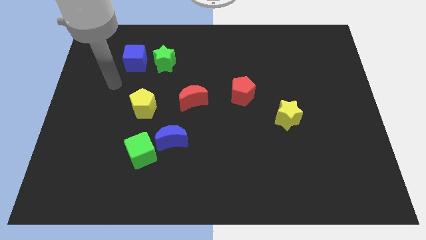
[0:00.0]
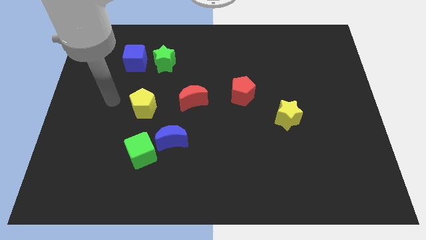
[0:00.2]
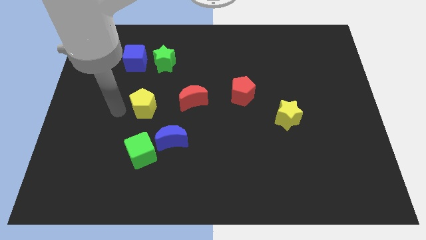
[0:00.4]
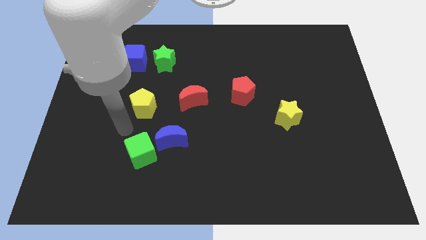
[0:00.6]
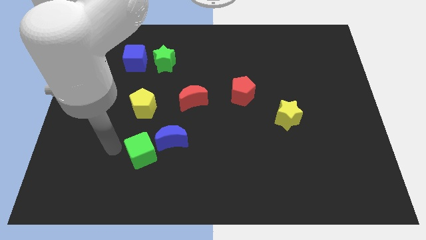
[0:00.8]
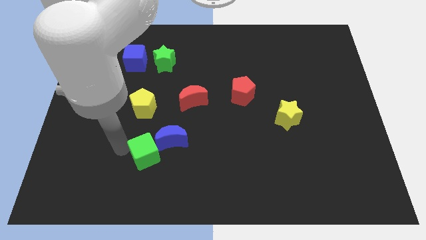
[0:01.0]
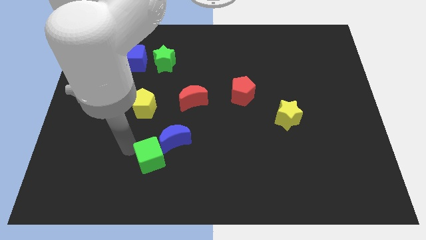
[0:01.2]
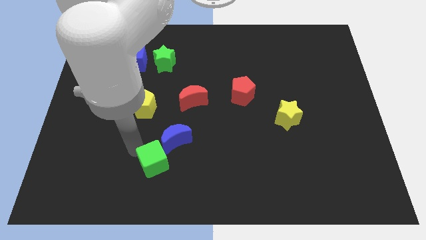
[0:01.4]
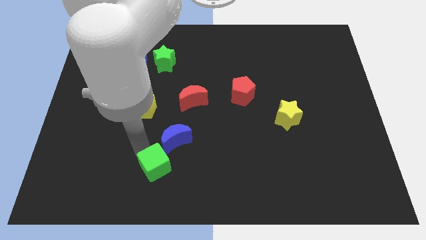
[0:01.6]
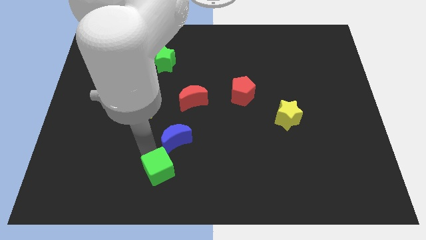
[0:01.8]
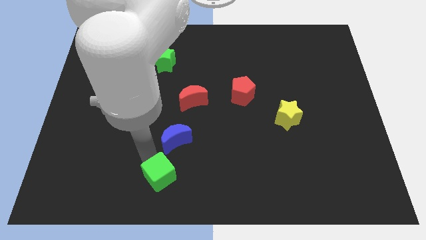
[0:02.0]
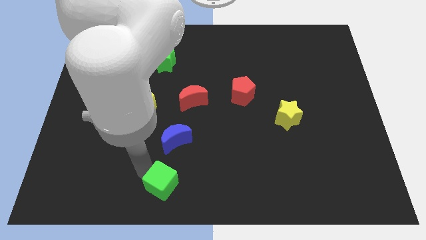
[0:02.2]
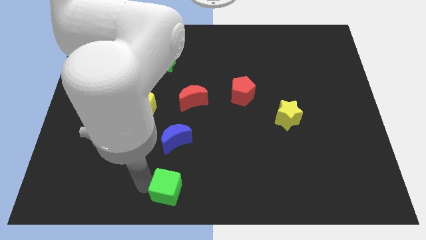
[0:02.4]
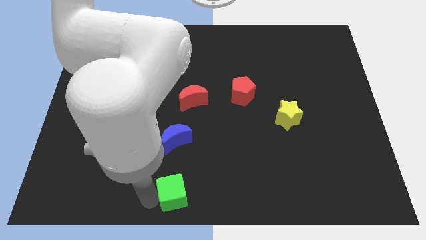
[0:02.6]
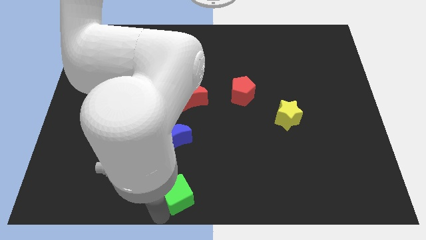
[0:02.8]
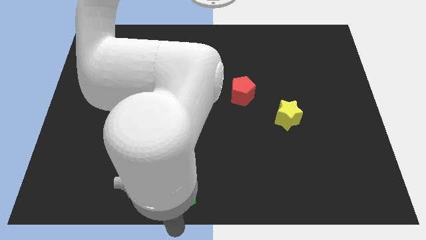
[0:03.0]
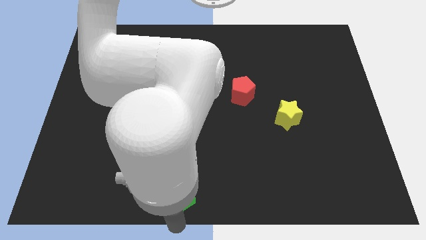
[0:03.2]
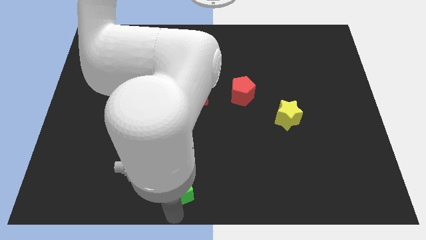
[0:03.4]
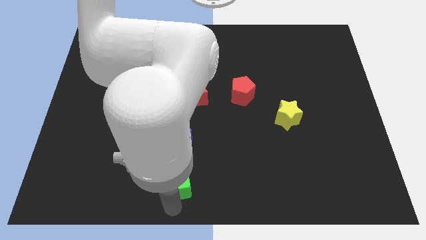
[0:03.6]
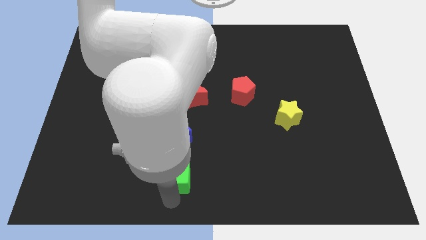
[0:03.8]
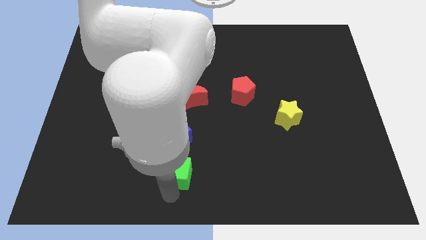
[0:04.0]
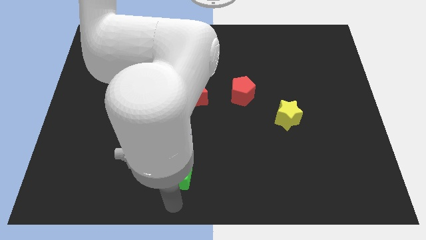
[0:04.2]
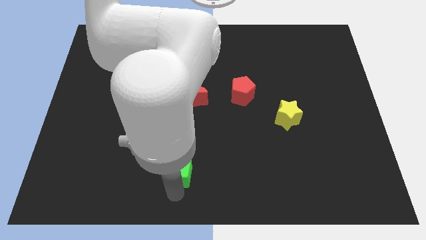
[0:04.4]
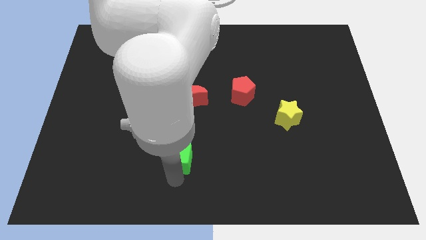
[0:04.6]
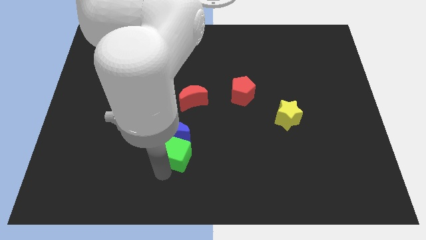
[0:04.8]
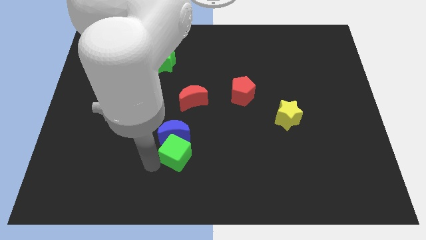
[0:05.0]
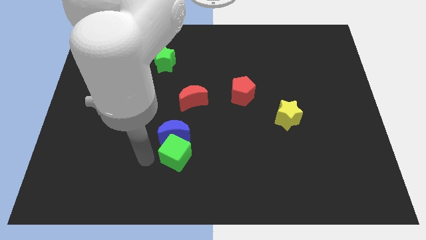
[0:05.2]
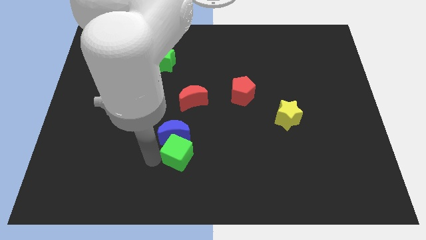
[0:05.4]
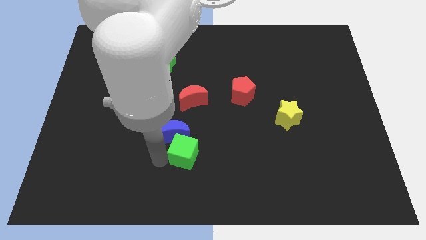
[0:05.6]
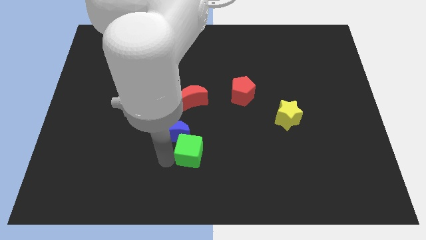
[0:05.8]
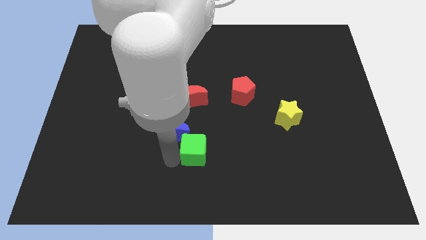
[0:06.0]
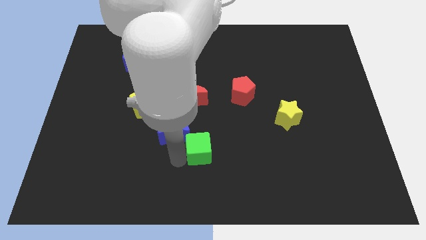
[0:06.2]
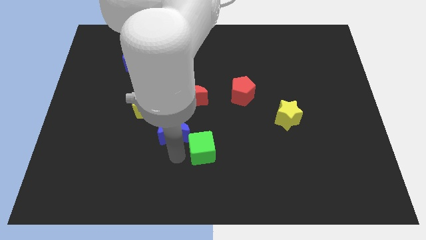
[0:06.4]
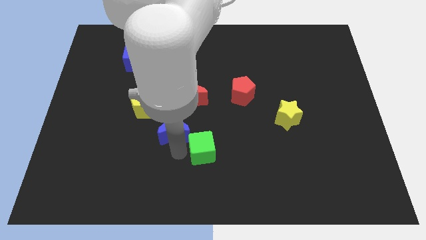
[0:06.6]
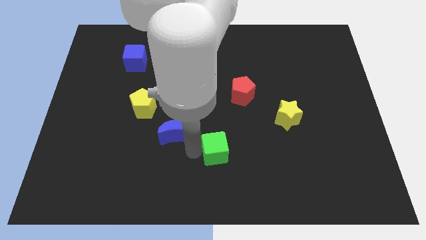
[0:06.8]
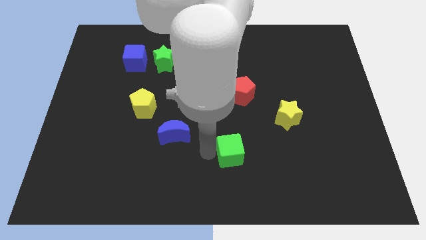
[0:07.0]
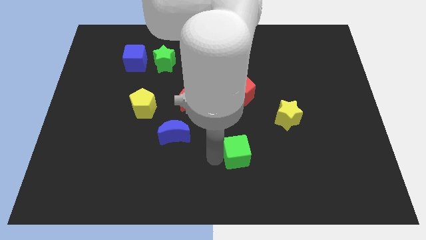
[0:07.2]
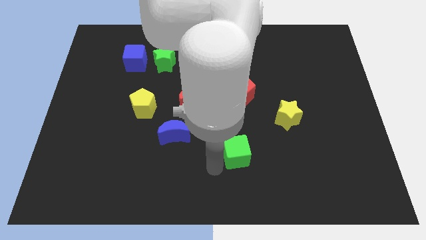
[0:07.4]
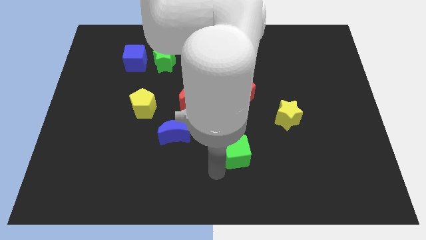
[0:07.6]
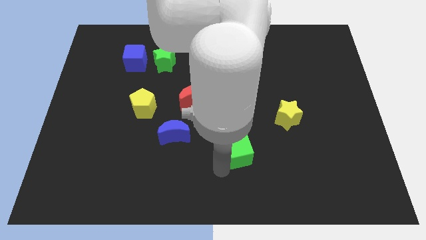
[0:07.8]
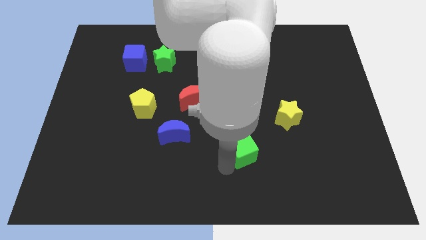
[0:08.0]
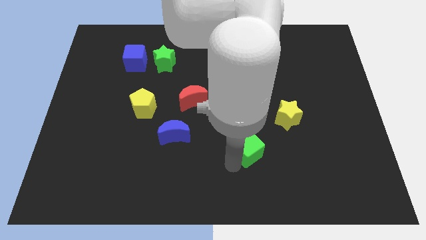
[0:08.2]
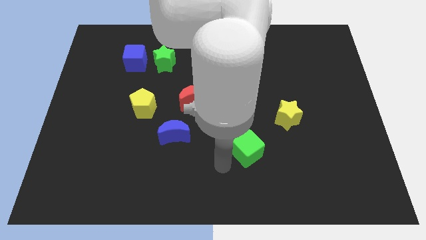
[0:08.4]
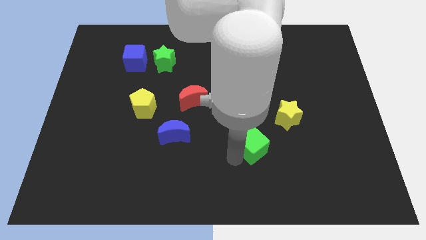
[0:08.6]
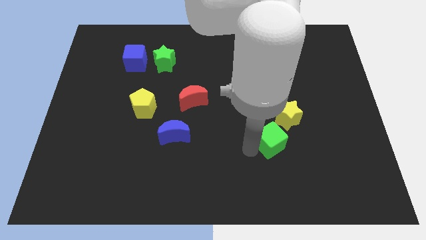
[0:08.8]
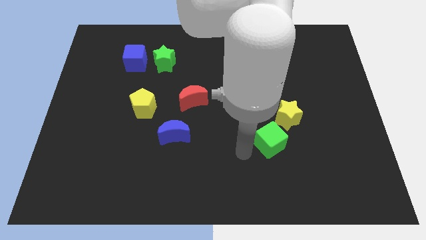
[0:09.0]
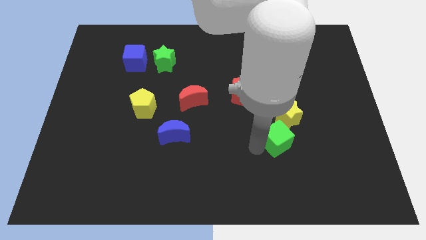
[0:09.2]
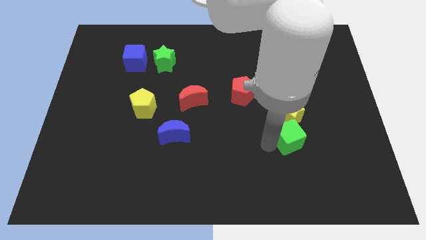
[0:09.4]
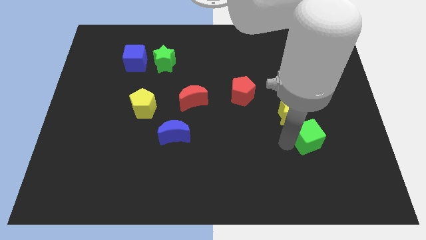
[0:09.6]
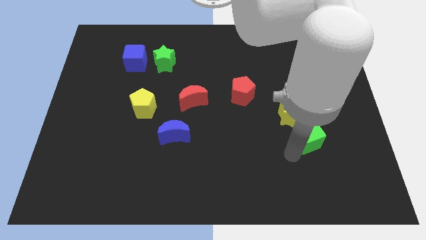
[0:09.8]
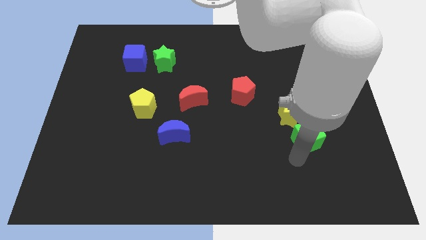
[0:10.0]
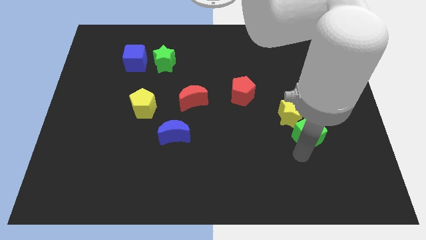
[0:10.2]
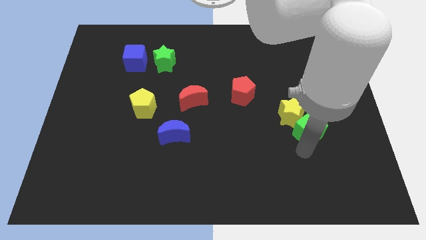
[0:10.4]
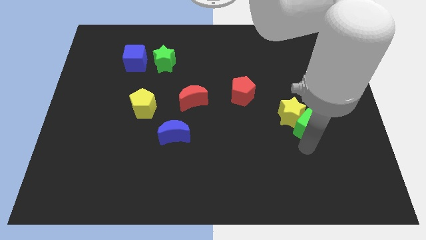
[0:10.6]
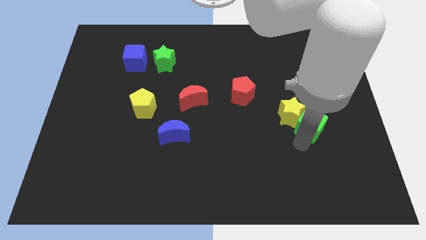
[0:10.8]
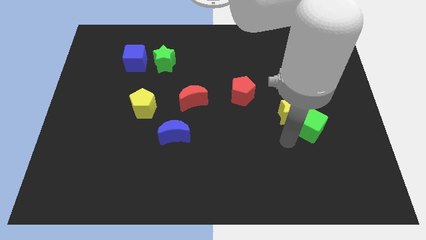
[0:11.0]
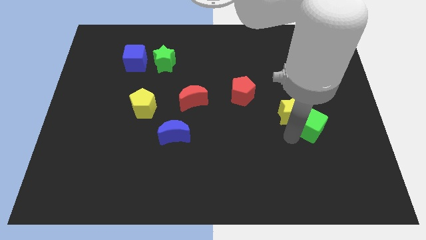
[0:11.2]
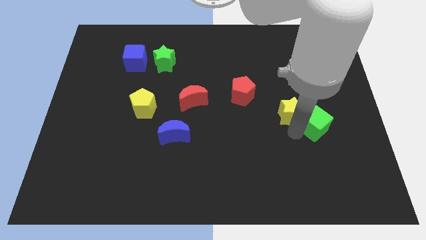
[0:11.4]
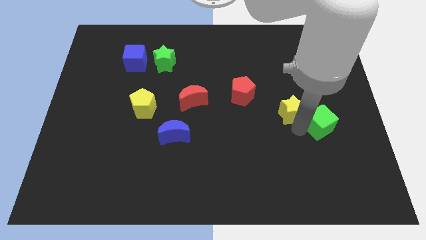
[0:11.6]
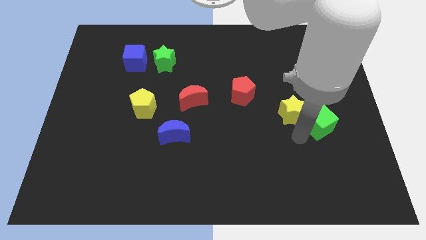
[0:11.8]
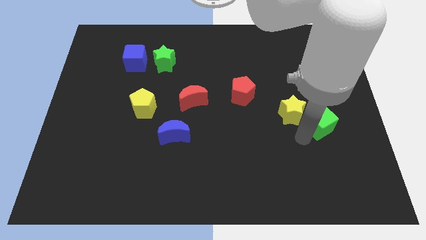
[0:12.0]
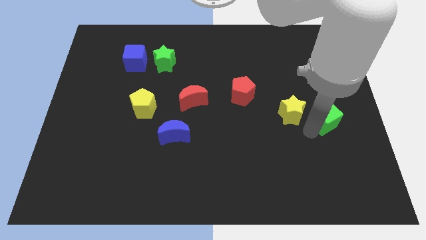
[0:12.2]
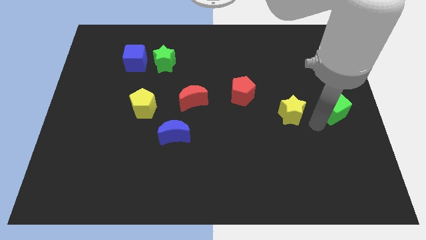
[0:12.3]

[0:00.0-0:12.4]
put the green cube to the right side

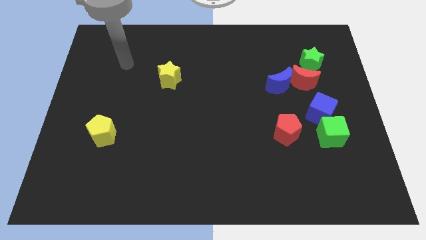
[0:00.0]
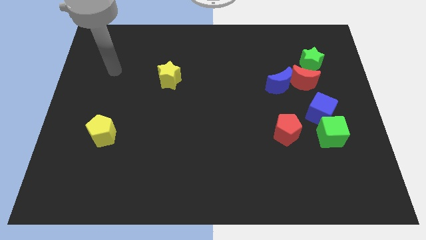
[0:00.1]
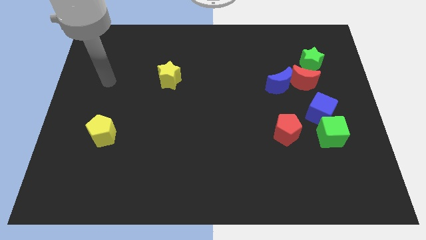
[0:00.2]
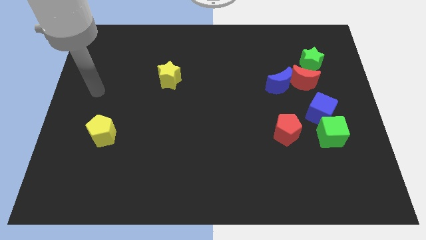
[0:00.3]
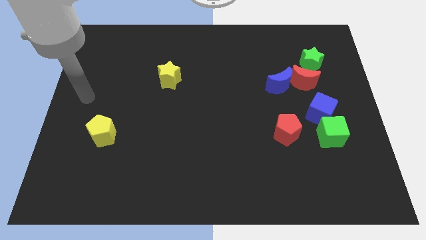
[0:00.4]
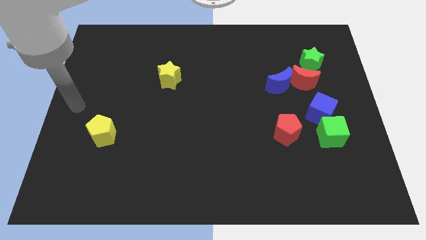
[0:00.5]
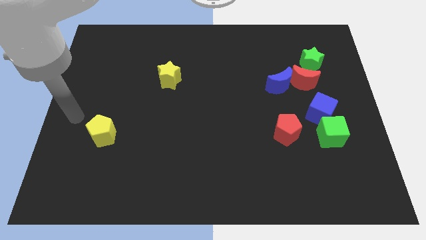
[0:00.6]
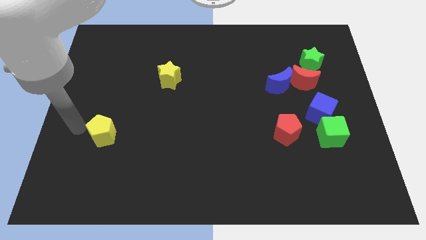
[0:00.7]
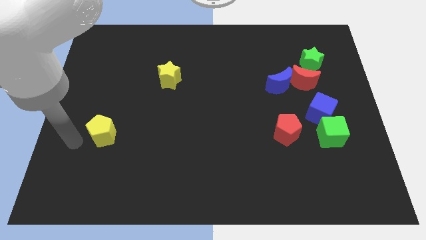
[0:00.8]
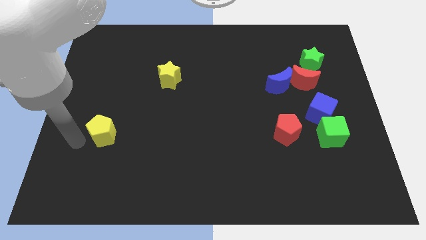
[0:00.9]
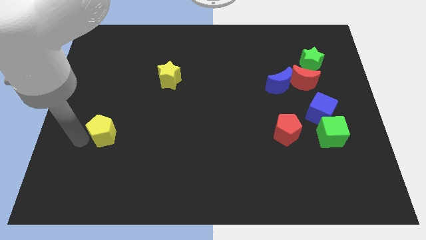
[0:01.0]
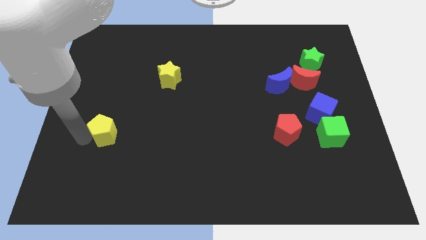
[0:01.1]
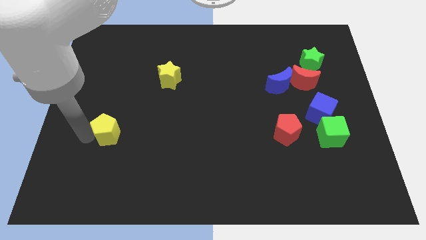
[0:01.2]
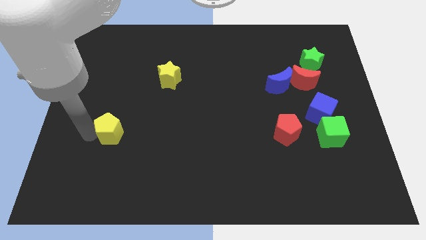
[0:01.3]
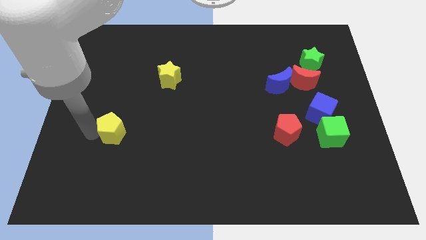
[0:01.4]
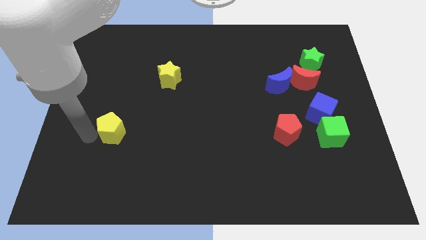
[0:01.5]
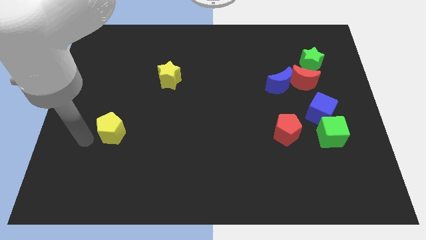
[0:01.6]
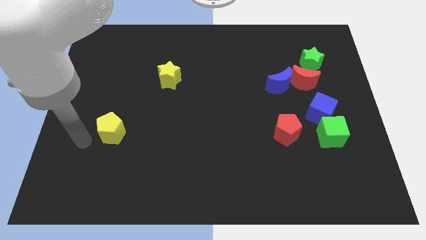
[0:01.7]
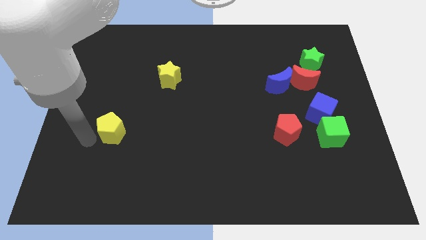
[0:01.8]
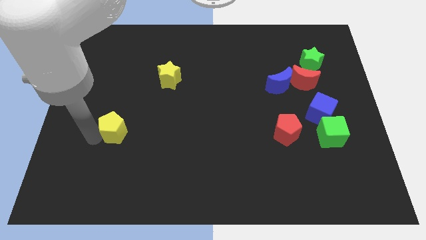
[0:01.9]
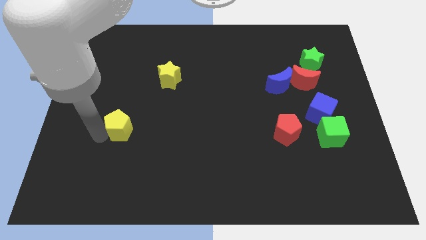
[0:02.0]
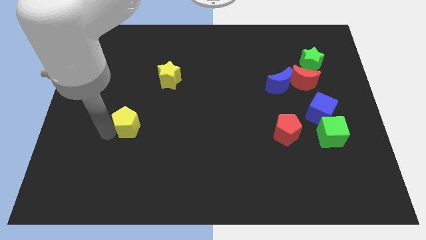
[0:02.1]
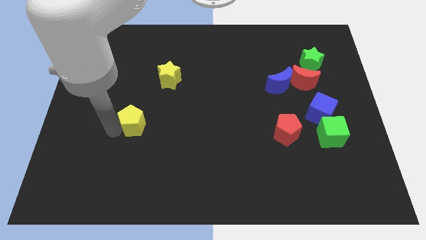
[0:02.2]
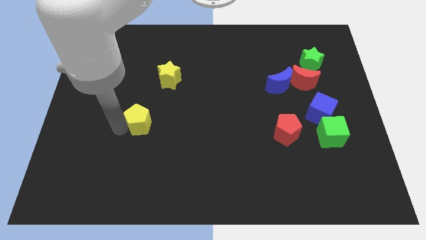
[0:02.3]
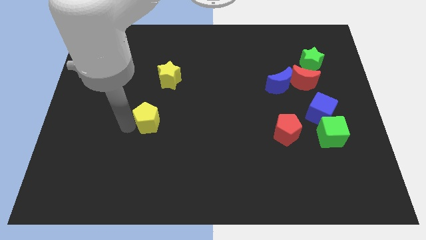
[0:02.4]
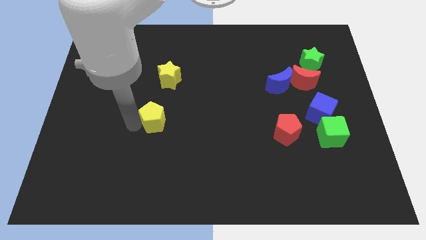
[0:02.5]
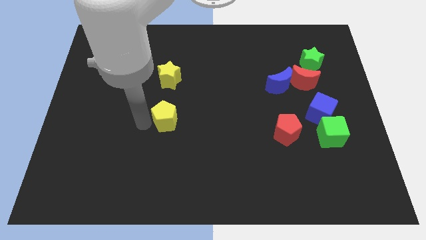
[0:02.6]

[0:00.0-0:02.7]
slide the yellow pentagon to the center
